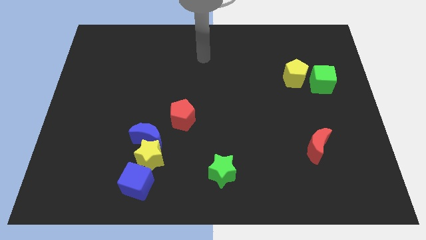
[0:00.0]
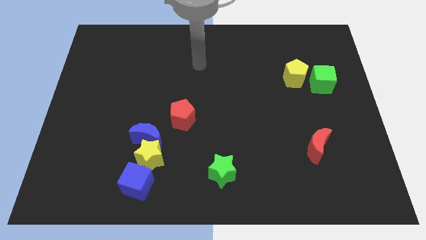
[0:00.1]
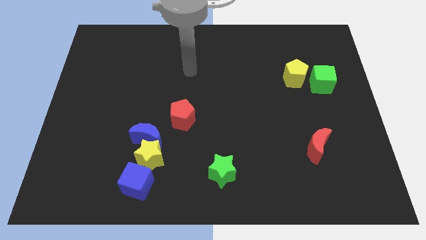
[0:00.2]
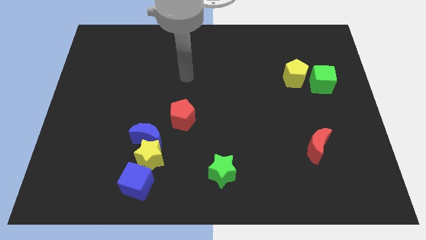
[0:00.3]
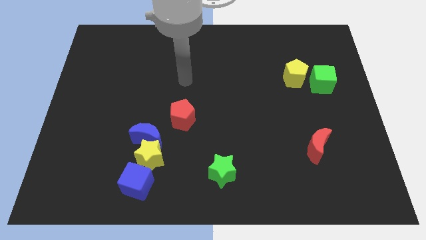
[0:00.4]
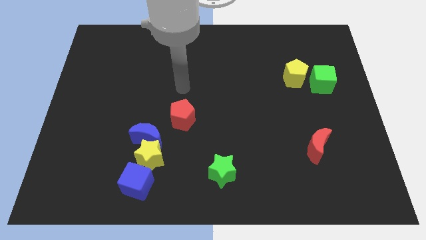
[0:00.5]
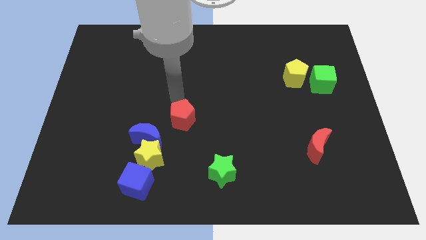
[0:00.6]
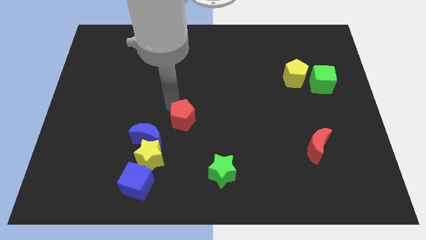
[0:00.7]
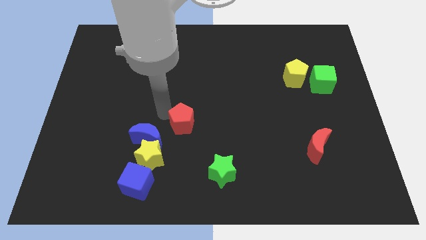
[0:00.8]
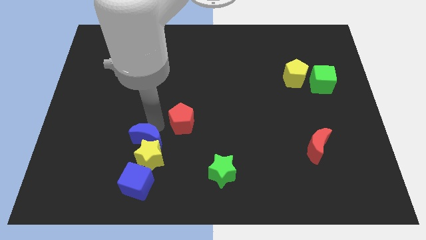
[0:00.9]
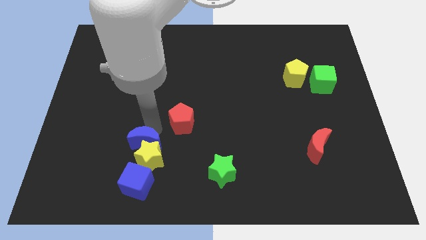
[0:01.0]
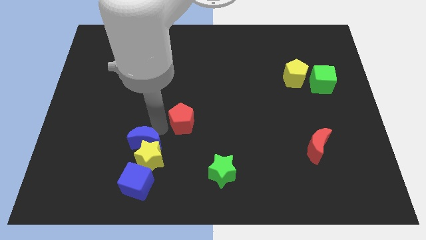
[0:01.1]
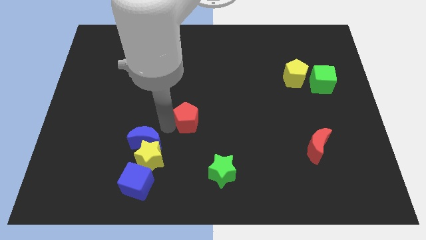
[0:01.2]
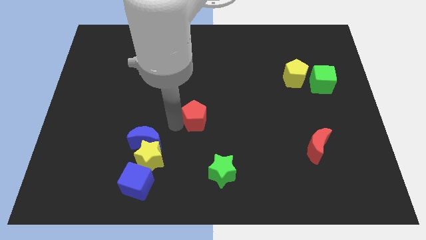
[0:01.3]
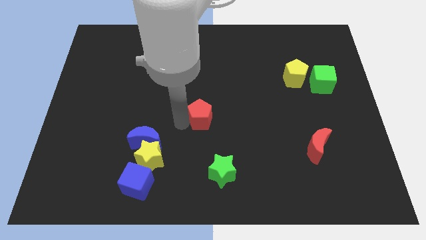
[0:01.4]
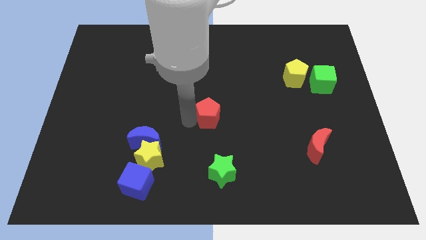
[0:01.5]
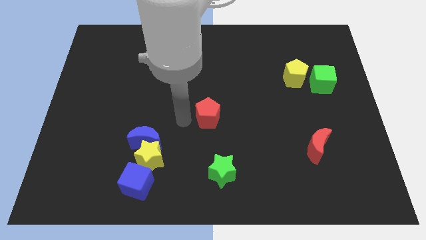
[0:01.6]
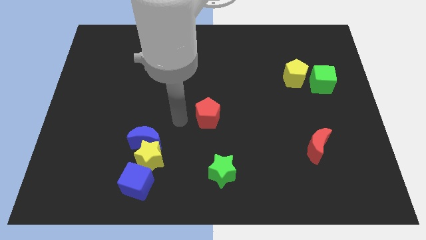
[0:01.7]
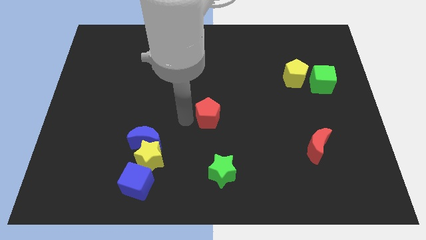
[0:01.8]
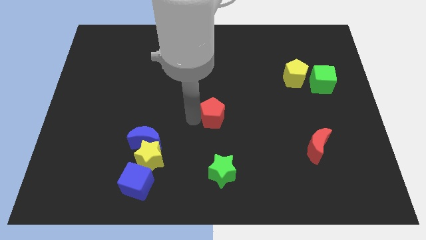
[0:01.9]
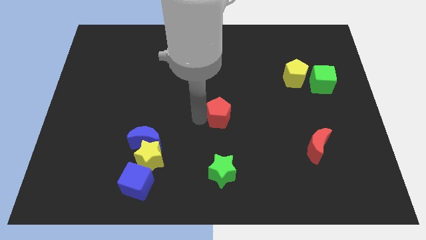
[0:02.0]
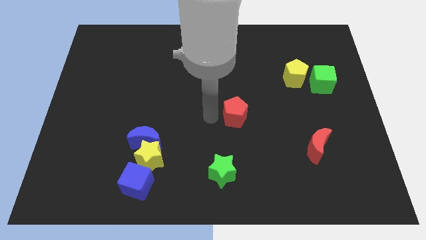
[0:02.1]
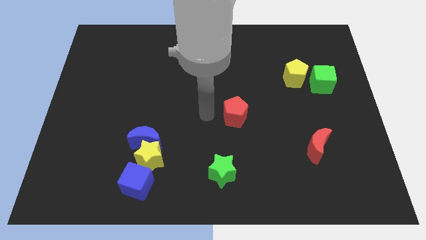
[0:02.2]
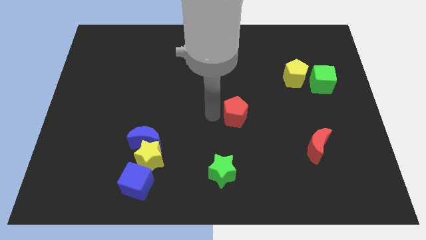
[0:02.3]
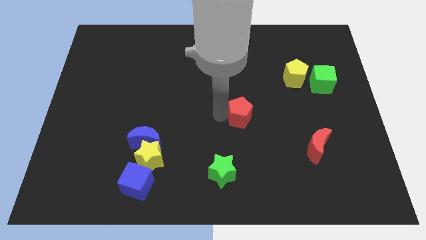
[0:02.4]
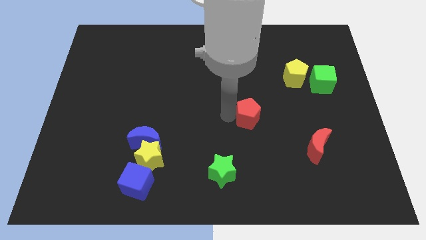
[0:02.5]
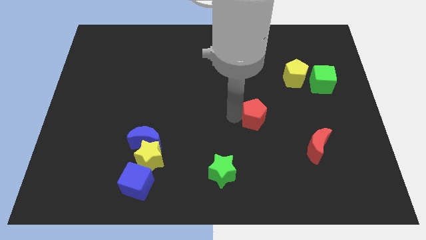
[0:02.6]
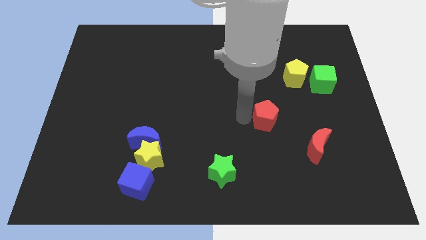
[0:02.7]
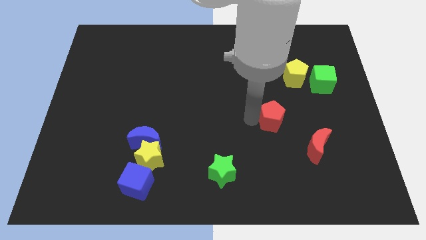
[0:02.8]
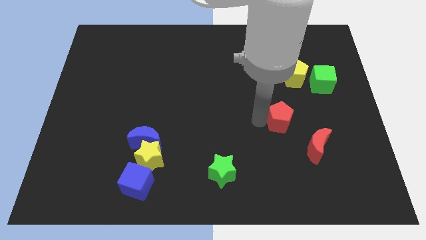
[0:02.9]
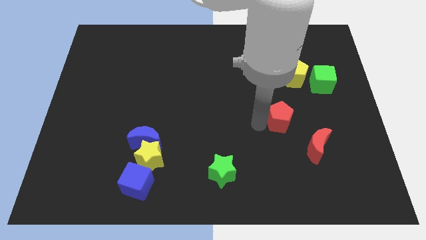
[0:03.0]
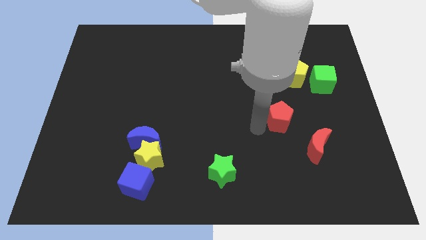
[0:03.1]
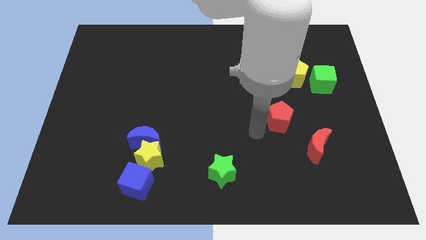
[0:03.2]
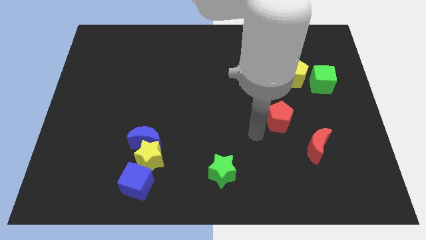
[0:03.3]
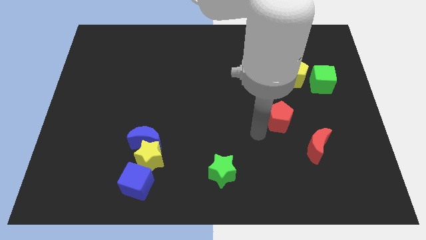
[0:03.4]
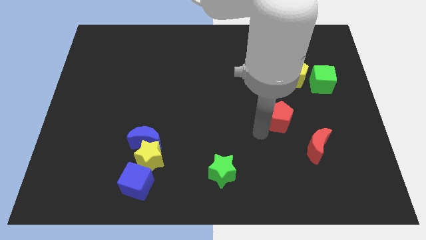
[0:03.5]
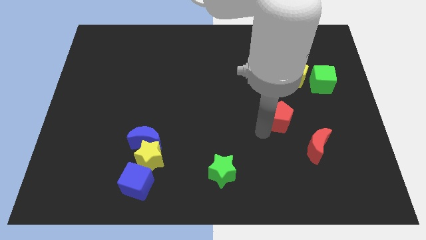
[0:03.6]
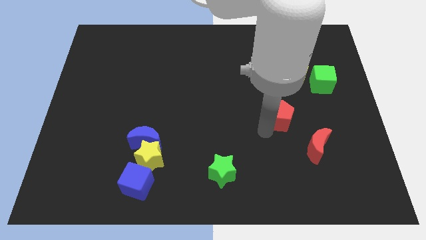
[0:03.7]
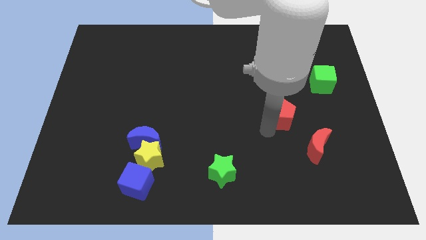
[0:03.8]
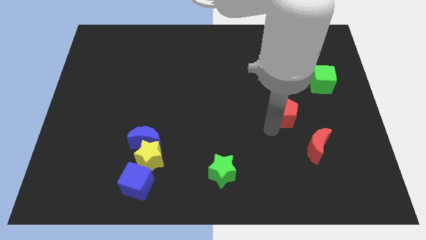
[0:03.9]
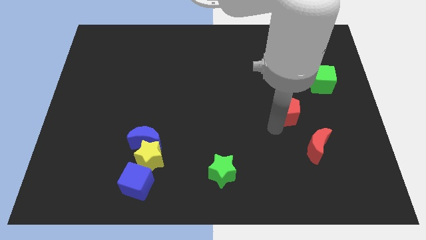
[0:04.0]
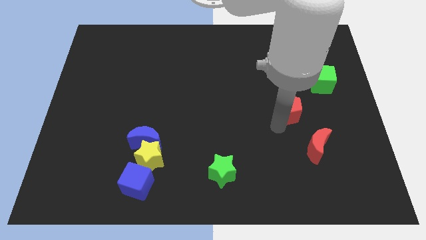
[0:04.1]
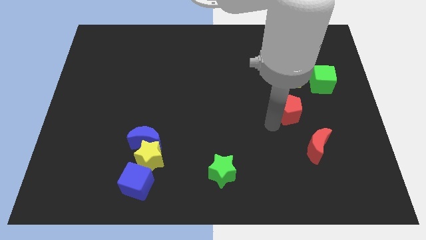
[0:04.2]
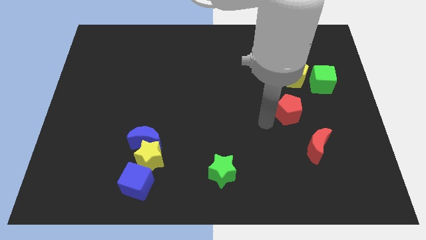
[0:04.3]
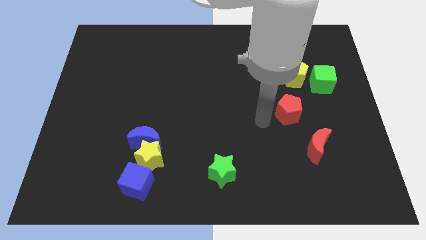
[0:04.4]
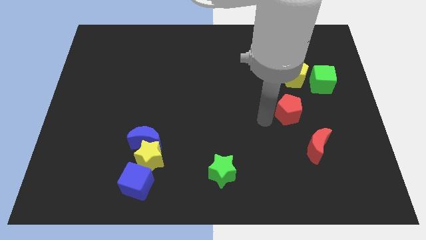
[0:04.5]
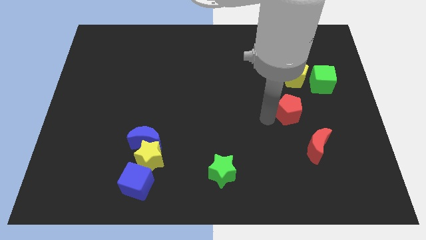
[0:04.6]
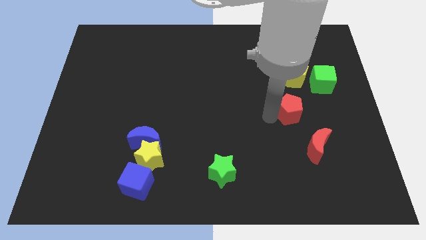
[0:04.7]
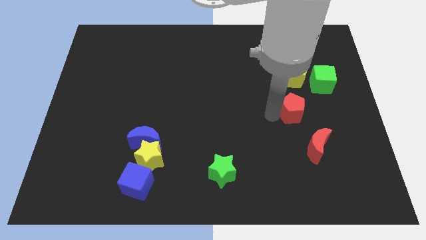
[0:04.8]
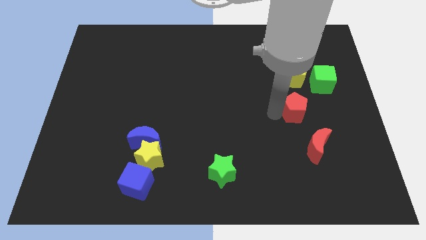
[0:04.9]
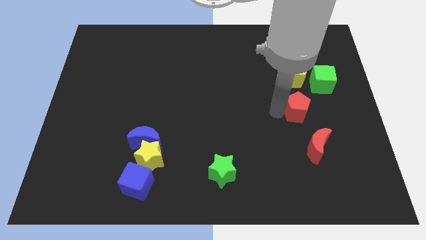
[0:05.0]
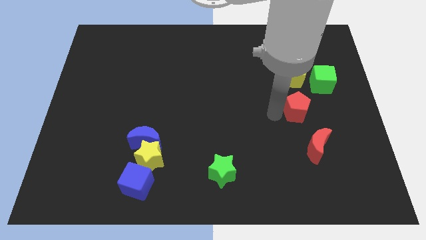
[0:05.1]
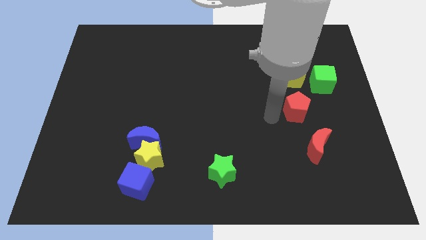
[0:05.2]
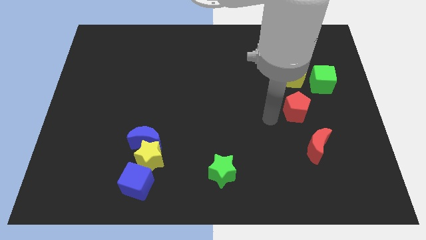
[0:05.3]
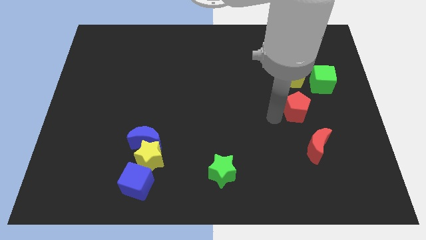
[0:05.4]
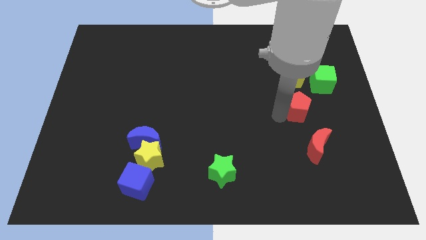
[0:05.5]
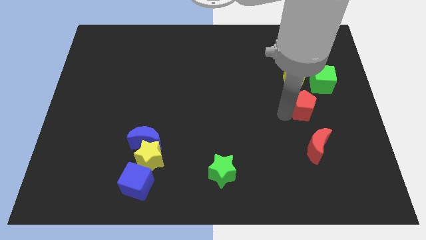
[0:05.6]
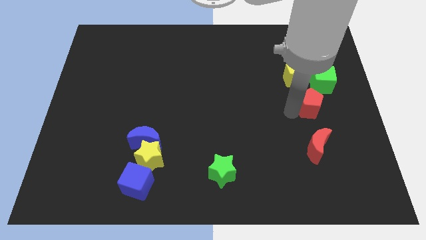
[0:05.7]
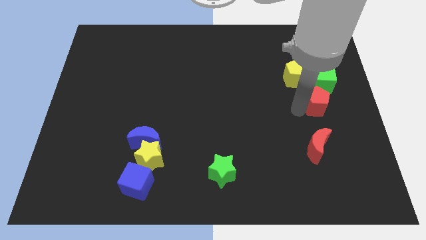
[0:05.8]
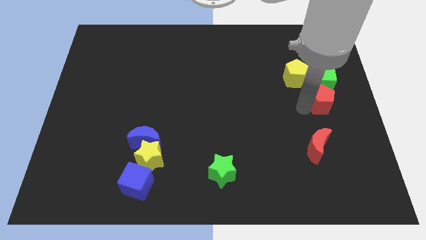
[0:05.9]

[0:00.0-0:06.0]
move the red pentagon to the center right

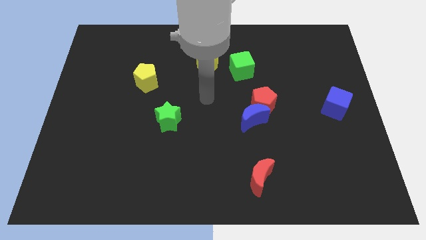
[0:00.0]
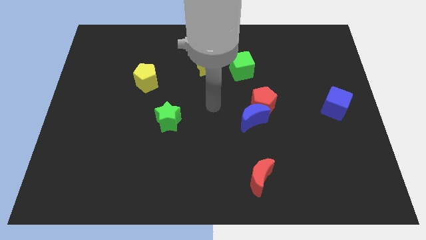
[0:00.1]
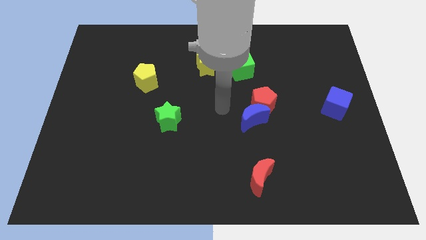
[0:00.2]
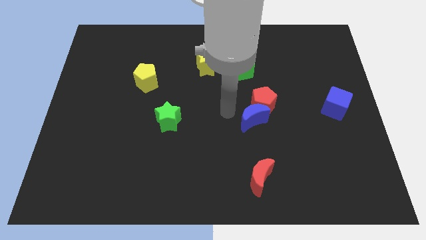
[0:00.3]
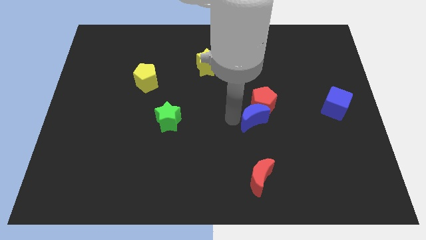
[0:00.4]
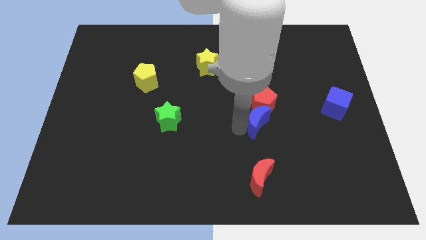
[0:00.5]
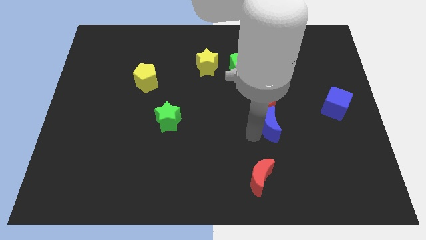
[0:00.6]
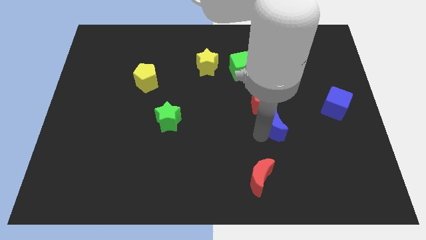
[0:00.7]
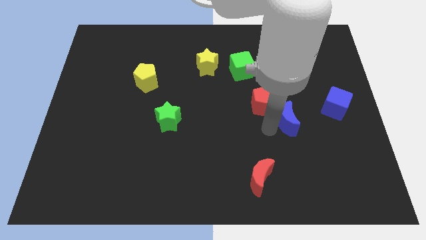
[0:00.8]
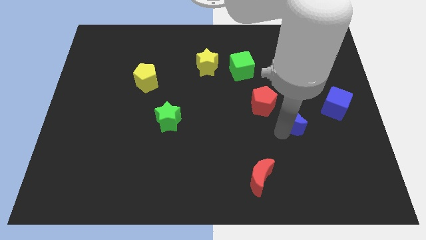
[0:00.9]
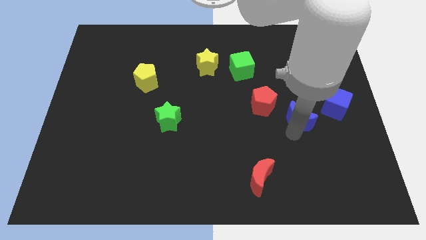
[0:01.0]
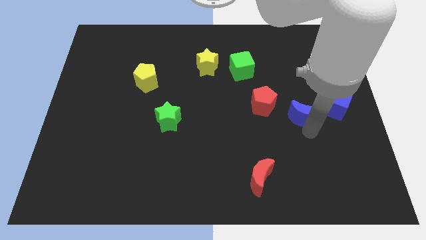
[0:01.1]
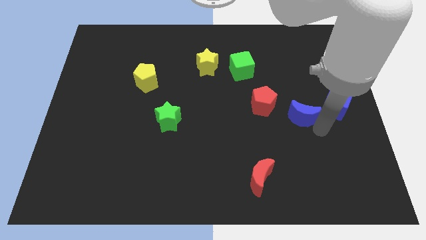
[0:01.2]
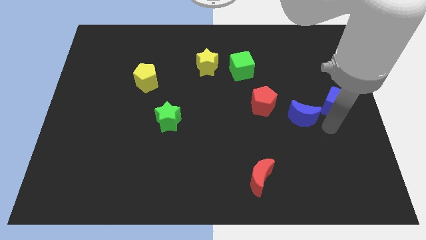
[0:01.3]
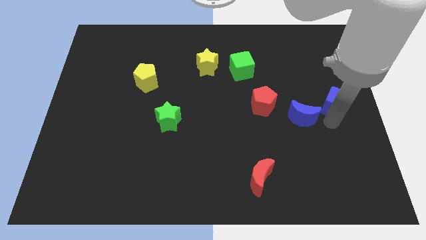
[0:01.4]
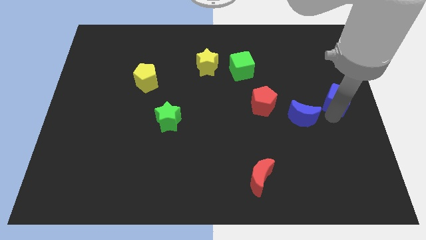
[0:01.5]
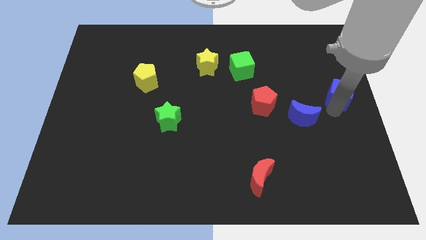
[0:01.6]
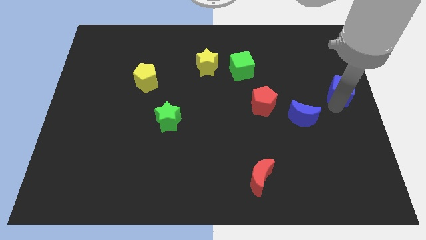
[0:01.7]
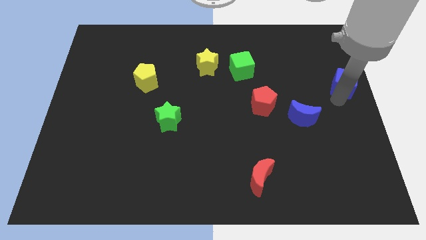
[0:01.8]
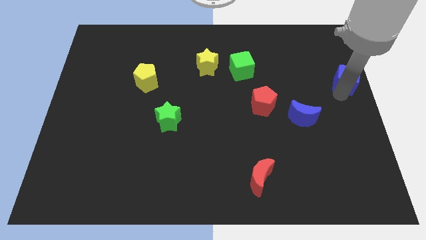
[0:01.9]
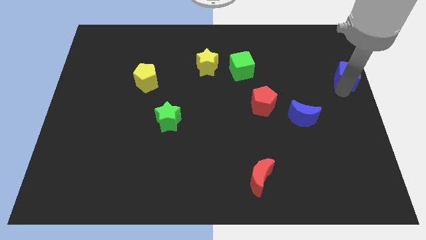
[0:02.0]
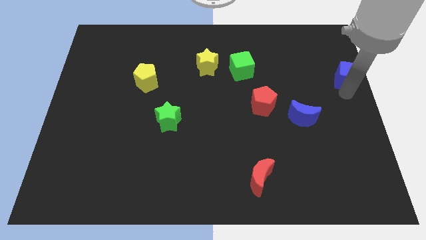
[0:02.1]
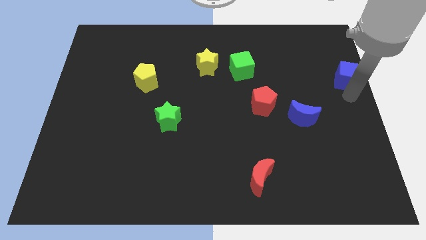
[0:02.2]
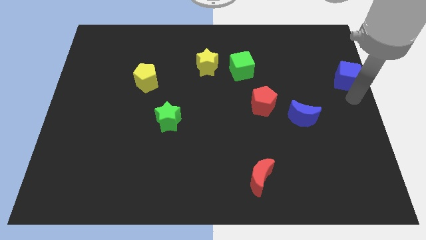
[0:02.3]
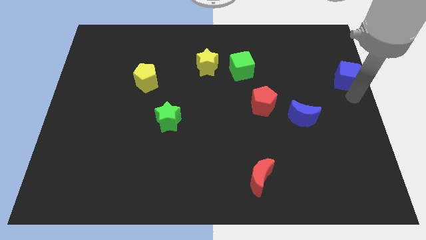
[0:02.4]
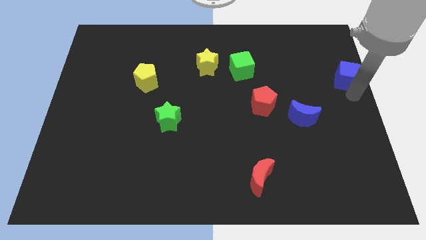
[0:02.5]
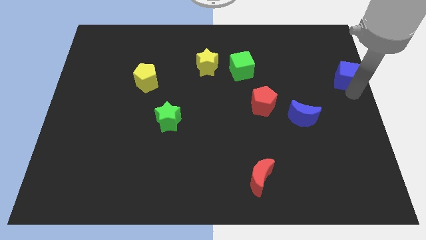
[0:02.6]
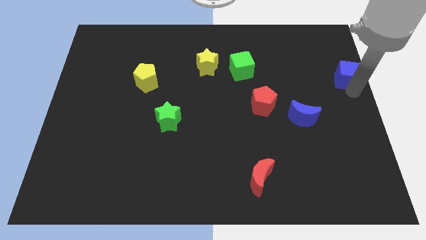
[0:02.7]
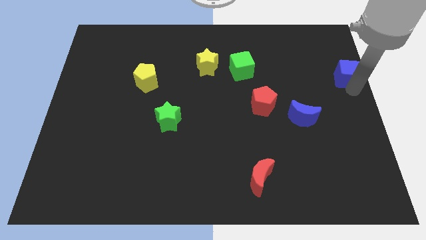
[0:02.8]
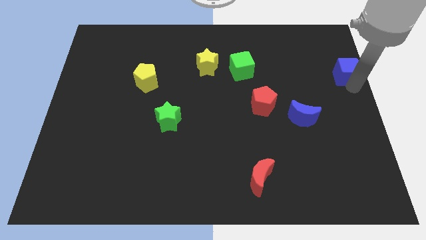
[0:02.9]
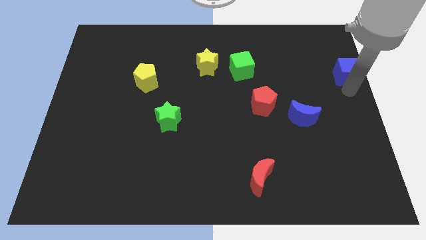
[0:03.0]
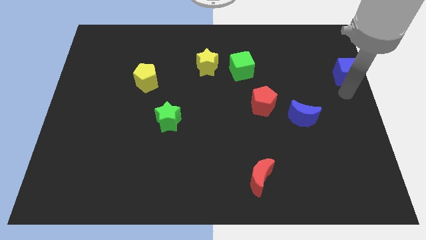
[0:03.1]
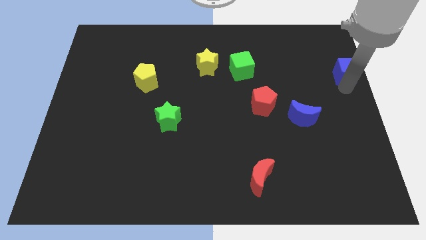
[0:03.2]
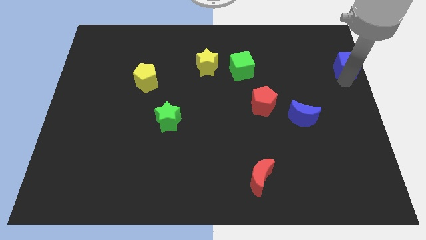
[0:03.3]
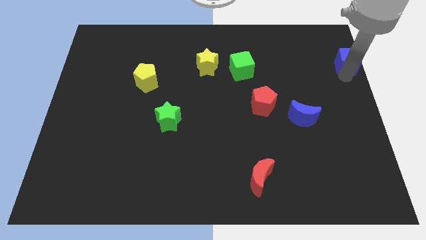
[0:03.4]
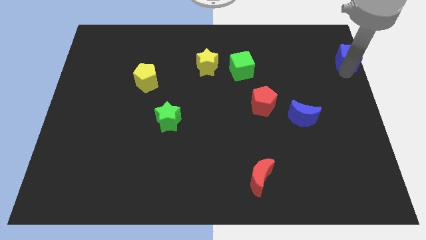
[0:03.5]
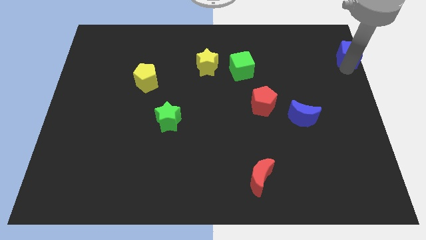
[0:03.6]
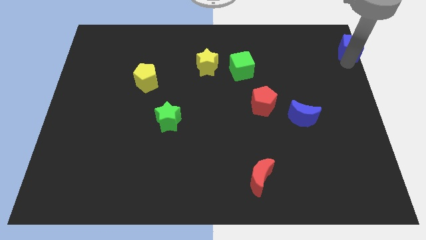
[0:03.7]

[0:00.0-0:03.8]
push the blue cube to the top right corner
